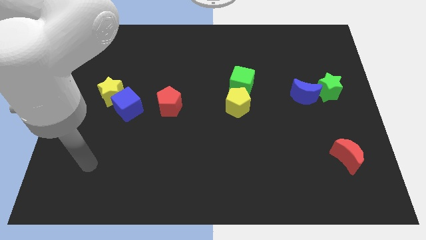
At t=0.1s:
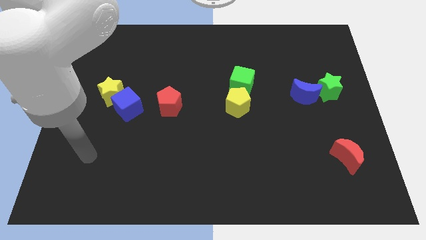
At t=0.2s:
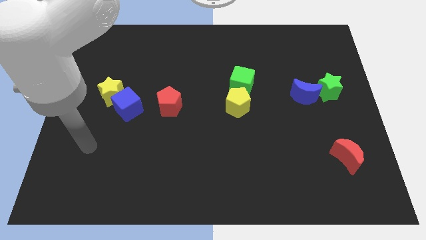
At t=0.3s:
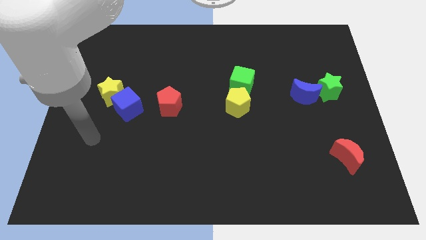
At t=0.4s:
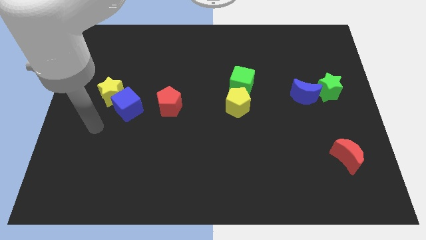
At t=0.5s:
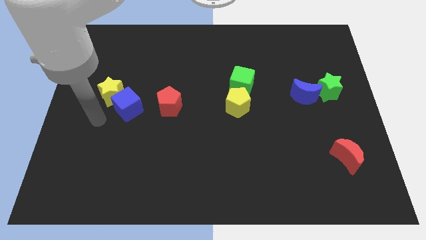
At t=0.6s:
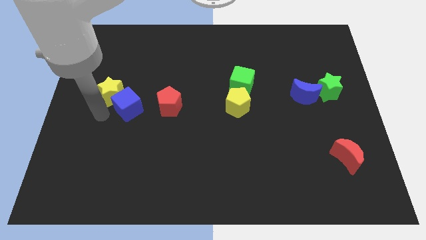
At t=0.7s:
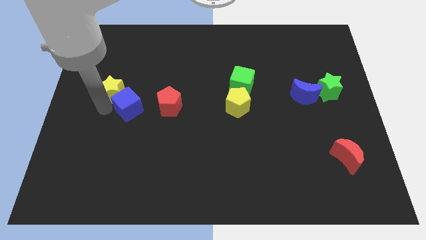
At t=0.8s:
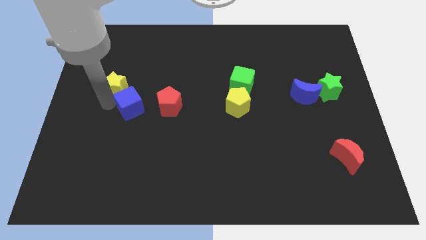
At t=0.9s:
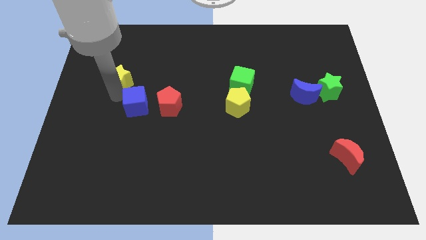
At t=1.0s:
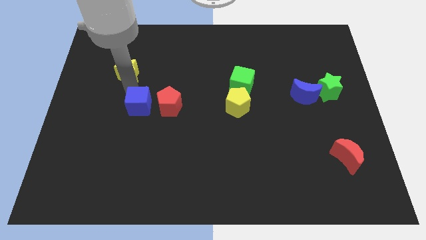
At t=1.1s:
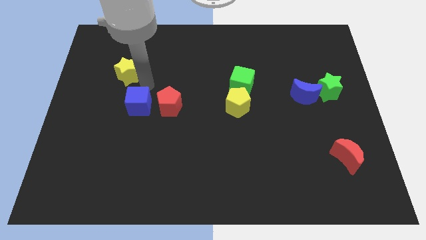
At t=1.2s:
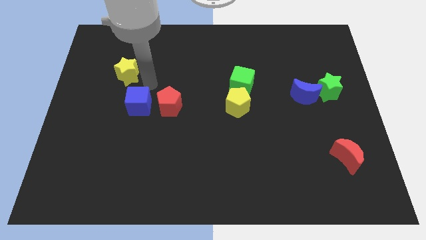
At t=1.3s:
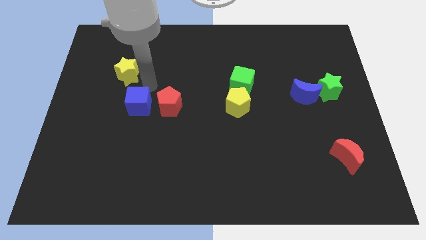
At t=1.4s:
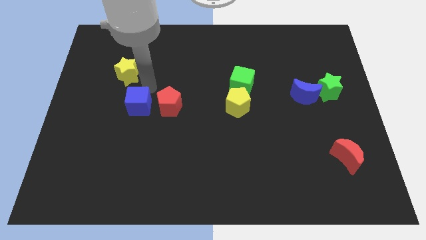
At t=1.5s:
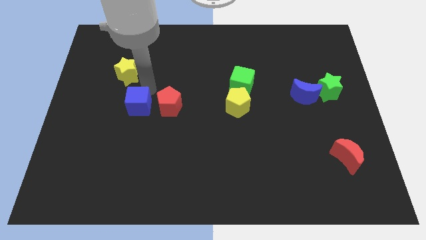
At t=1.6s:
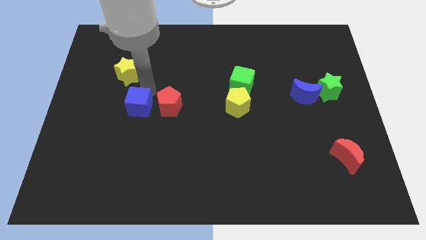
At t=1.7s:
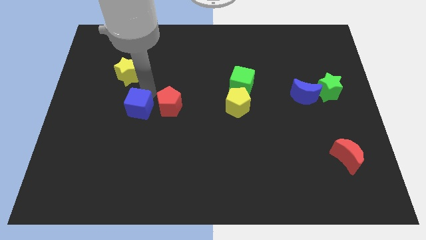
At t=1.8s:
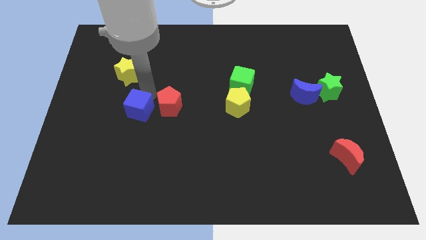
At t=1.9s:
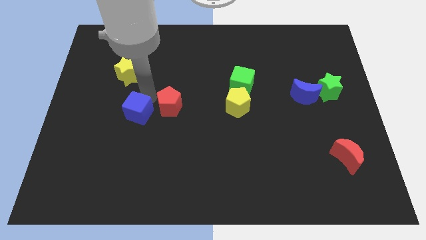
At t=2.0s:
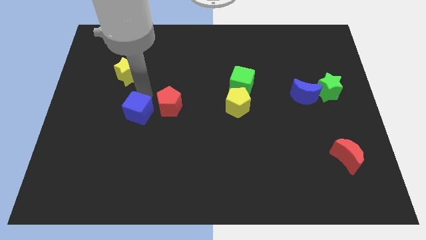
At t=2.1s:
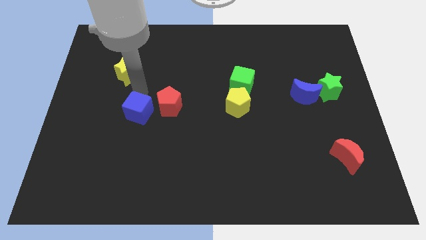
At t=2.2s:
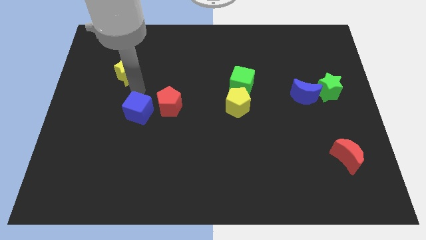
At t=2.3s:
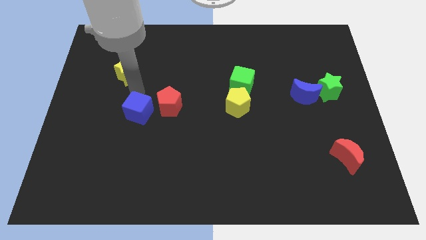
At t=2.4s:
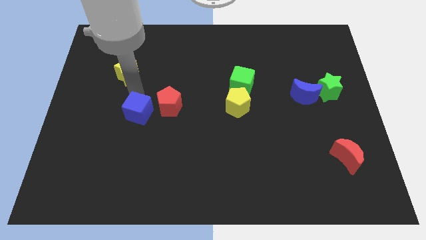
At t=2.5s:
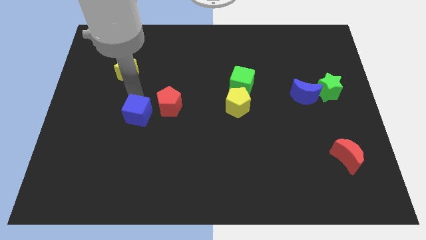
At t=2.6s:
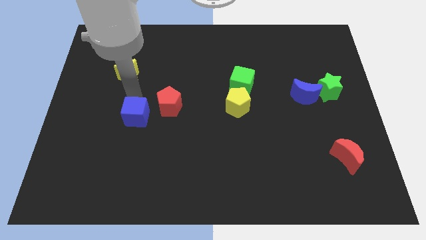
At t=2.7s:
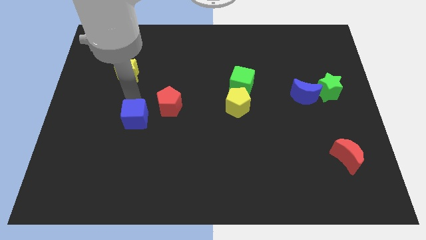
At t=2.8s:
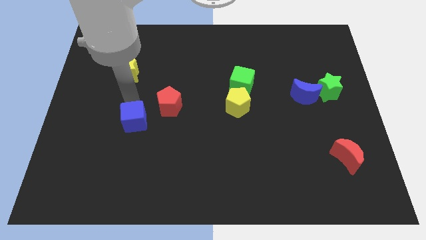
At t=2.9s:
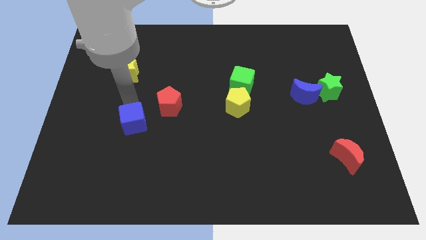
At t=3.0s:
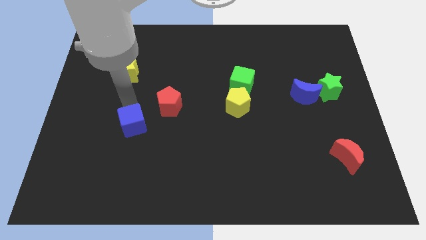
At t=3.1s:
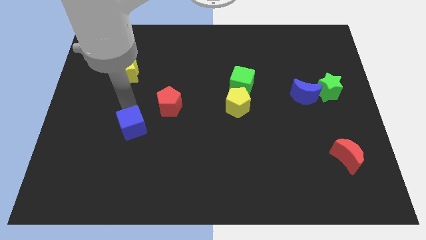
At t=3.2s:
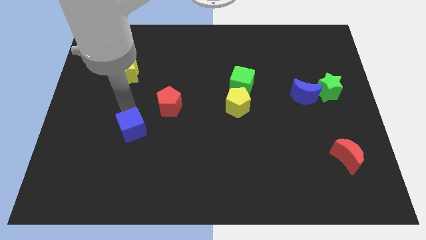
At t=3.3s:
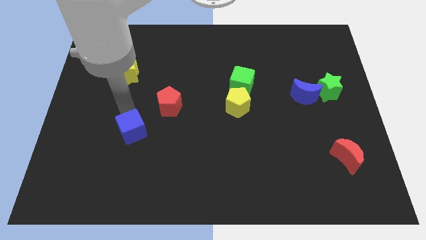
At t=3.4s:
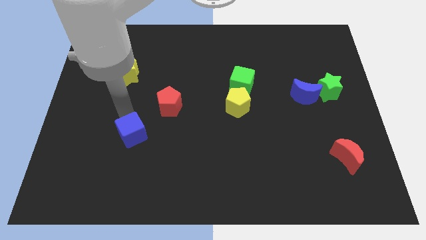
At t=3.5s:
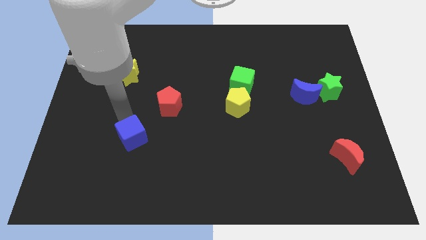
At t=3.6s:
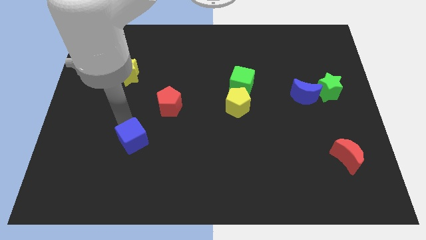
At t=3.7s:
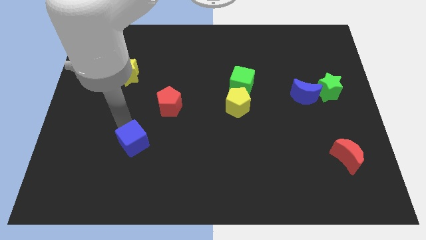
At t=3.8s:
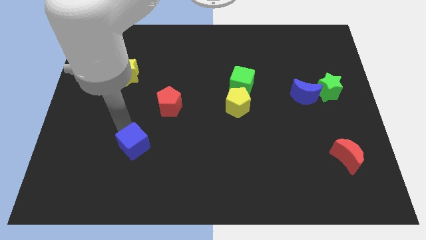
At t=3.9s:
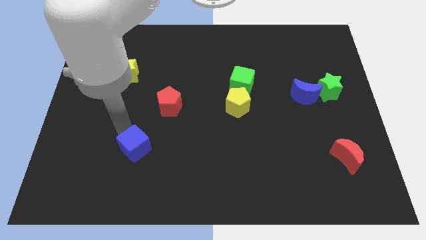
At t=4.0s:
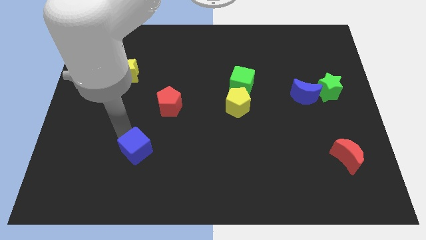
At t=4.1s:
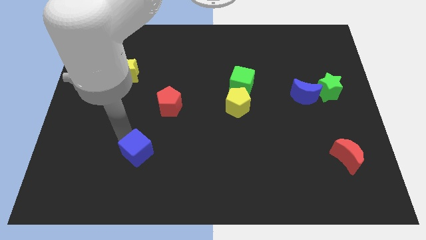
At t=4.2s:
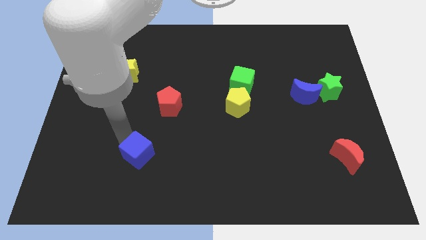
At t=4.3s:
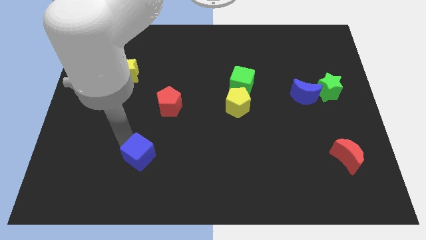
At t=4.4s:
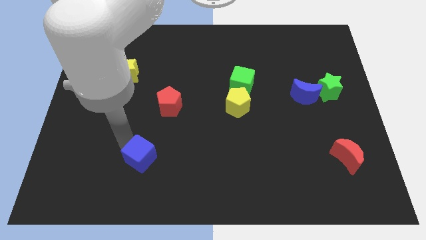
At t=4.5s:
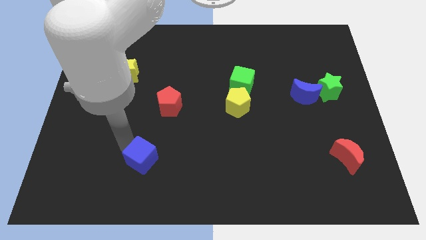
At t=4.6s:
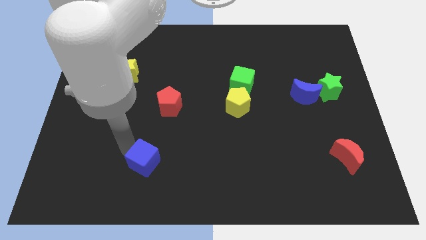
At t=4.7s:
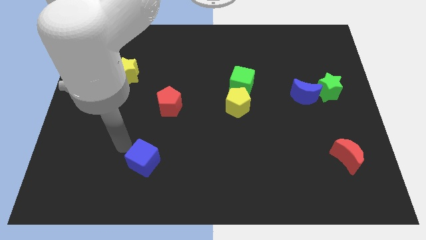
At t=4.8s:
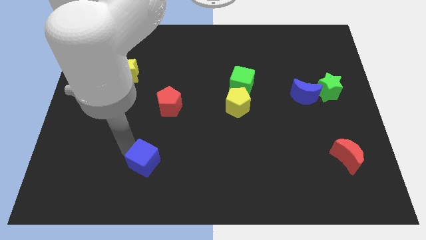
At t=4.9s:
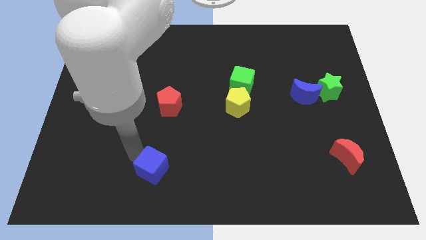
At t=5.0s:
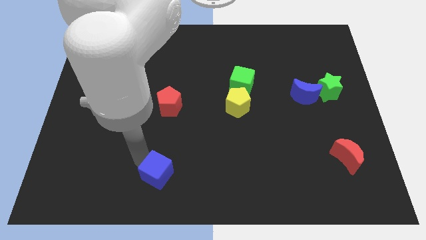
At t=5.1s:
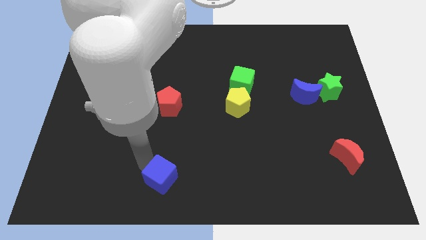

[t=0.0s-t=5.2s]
move the blue cube to the bottom side

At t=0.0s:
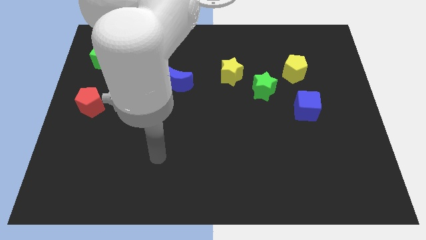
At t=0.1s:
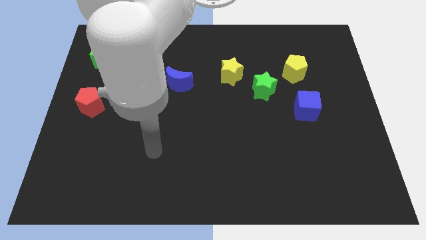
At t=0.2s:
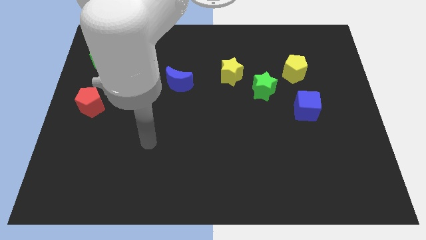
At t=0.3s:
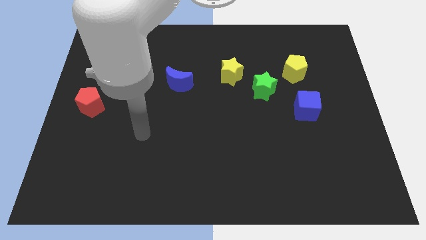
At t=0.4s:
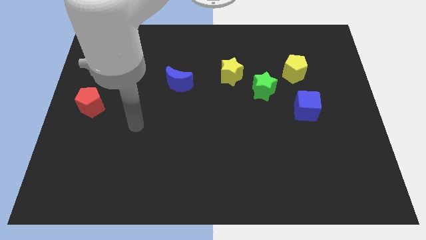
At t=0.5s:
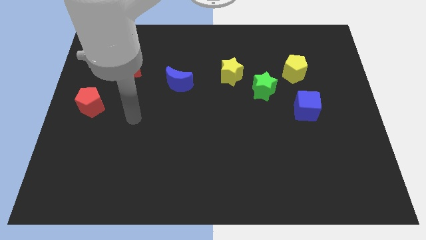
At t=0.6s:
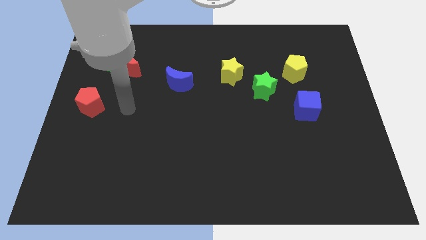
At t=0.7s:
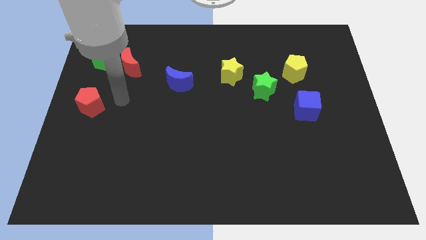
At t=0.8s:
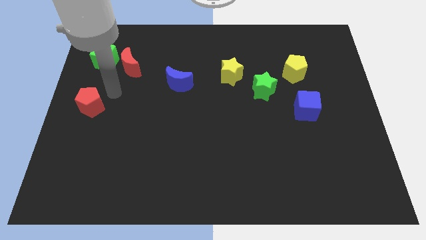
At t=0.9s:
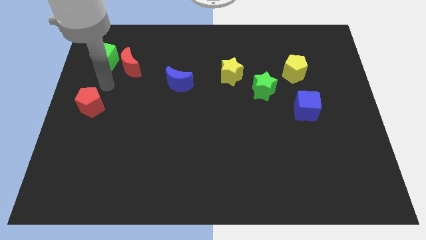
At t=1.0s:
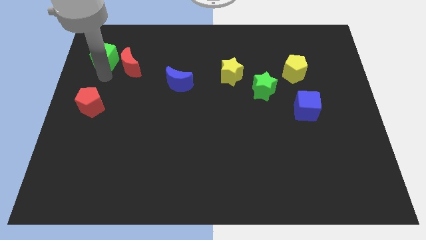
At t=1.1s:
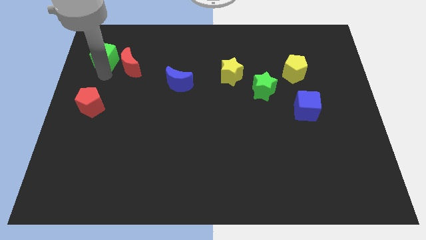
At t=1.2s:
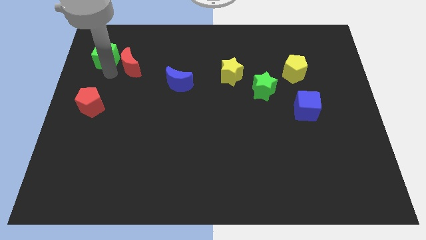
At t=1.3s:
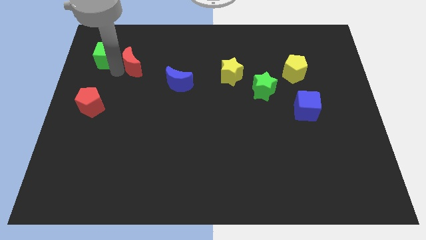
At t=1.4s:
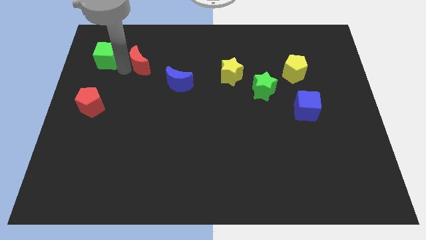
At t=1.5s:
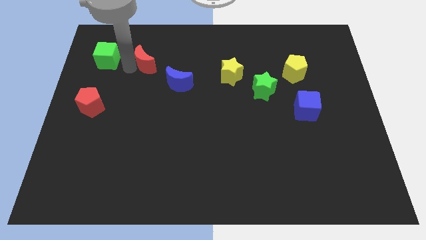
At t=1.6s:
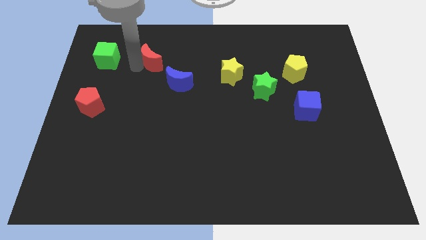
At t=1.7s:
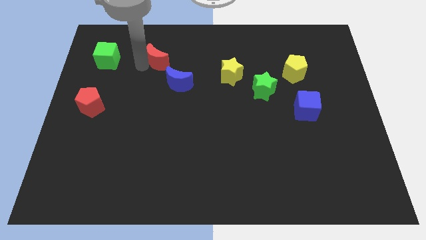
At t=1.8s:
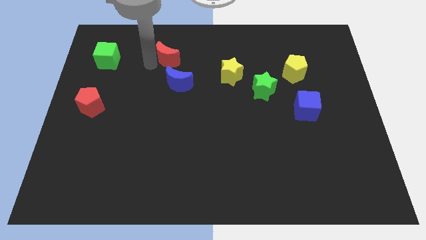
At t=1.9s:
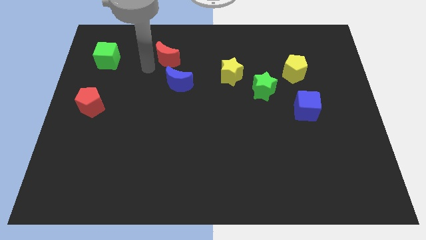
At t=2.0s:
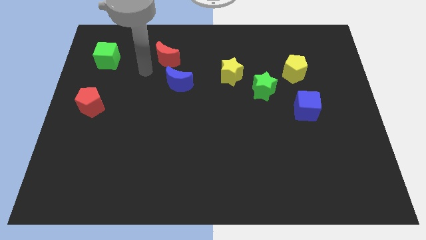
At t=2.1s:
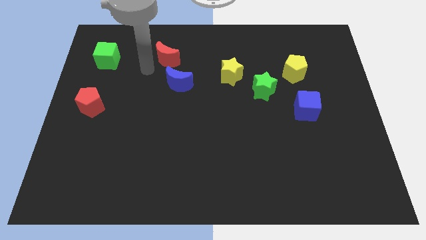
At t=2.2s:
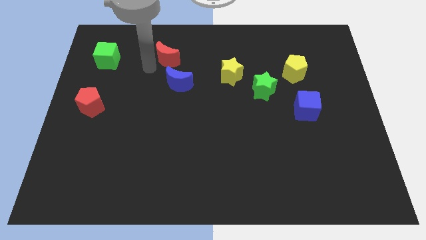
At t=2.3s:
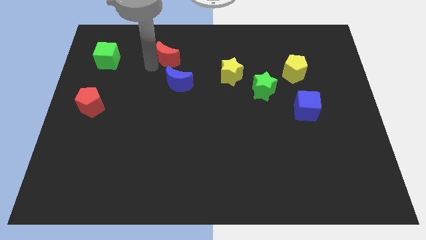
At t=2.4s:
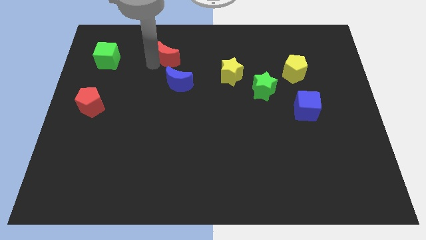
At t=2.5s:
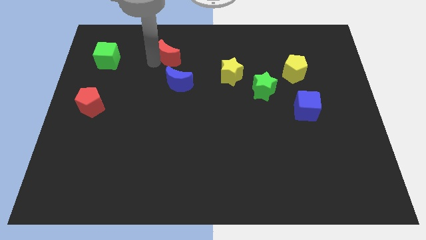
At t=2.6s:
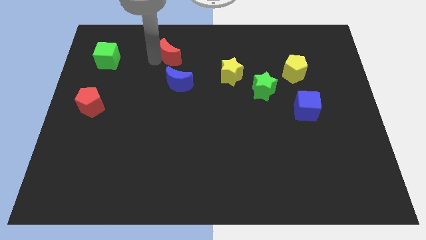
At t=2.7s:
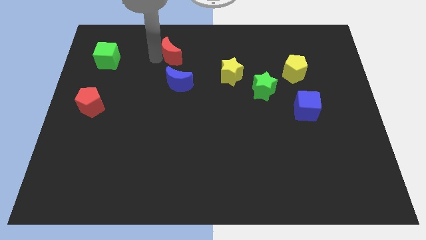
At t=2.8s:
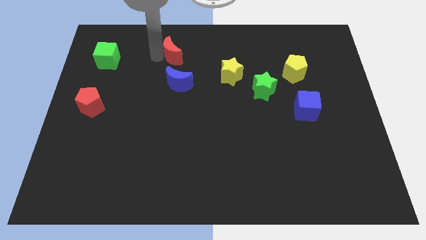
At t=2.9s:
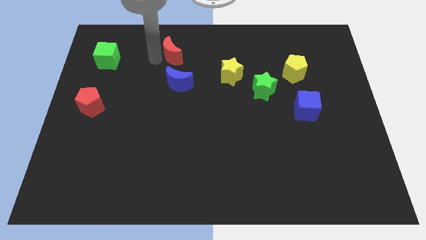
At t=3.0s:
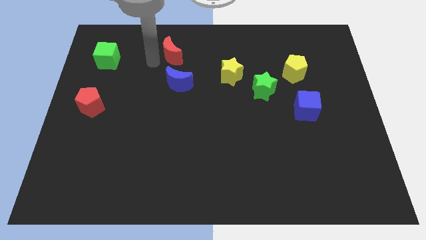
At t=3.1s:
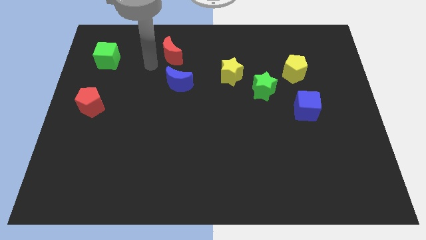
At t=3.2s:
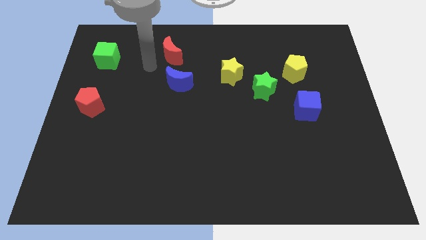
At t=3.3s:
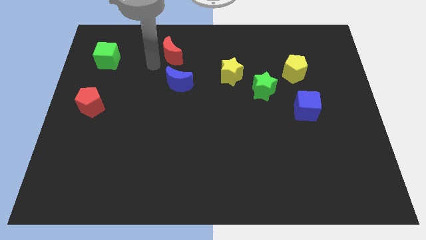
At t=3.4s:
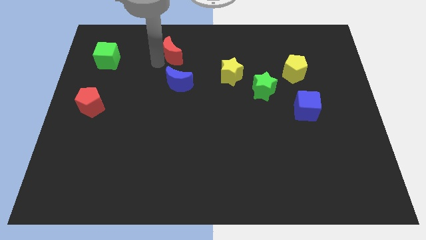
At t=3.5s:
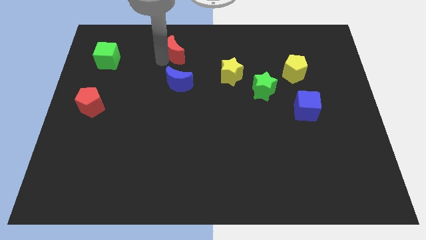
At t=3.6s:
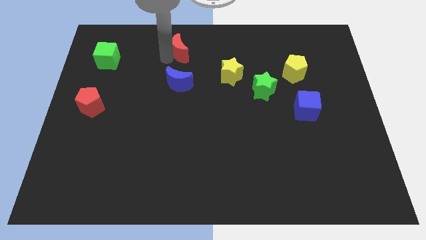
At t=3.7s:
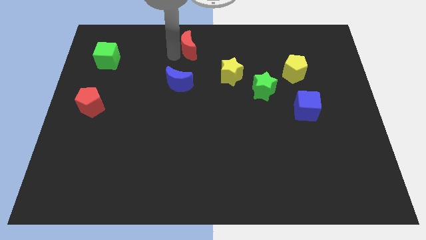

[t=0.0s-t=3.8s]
move the red moon to the towards your base
